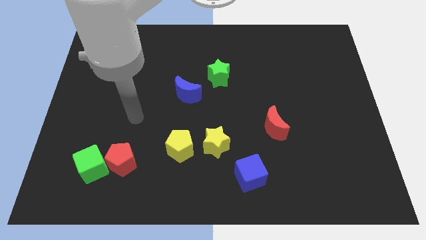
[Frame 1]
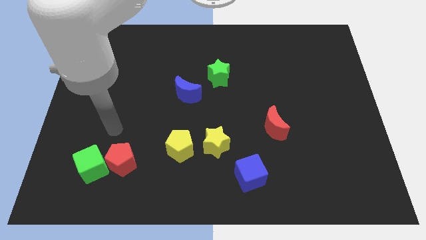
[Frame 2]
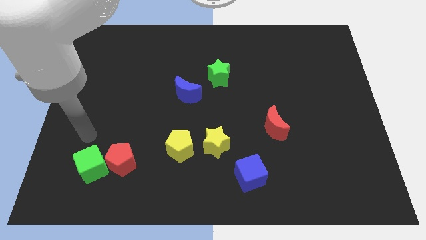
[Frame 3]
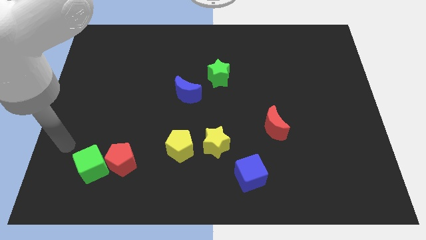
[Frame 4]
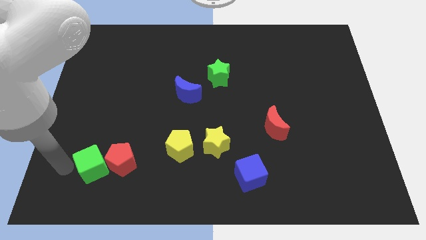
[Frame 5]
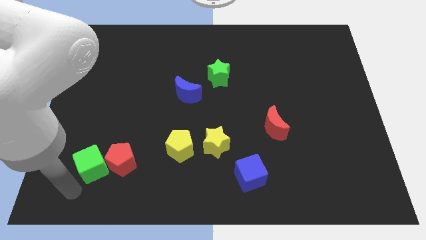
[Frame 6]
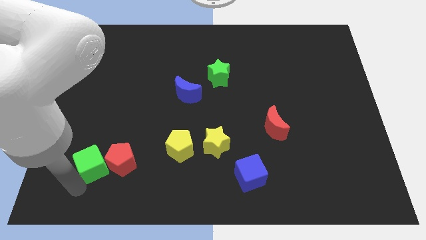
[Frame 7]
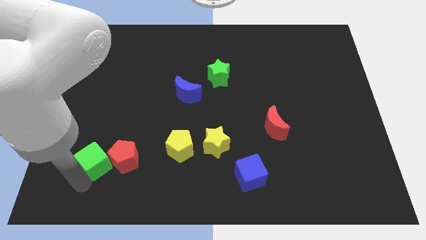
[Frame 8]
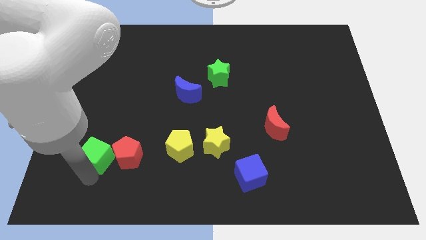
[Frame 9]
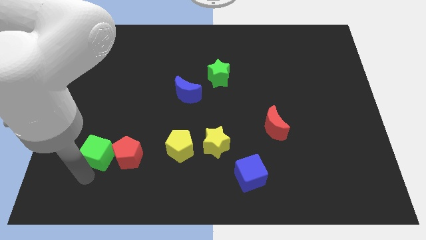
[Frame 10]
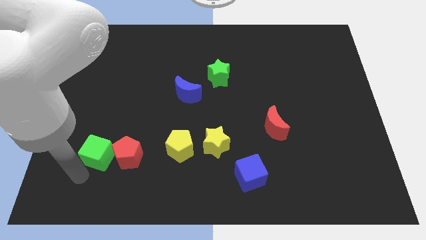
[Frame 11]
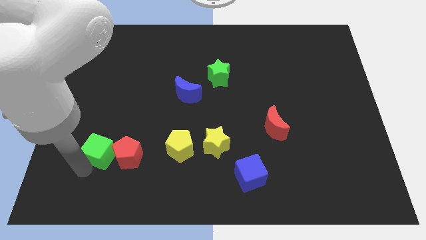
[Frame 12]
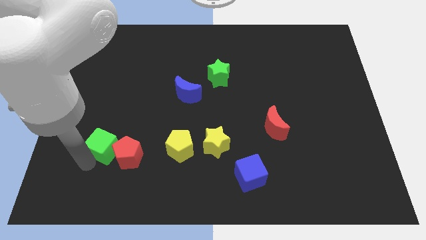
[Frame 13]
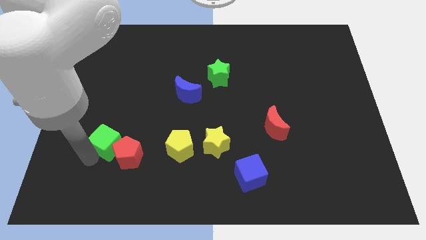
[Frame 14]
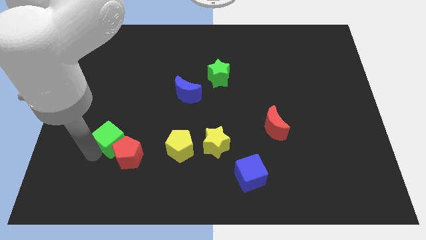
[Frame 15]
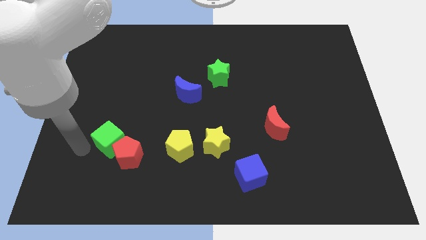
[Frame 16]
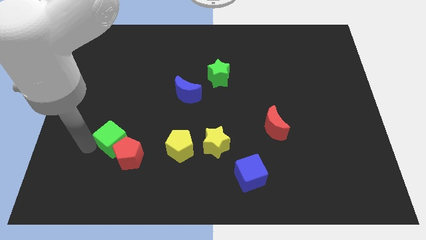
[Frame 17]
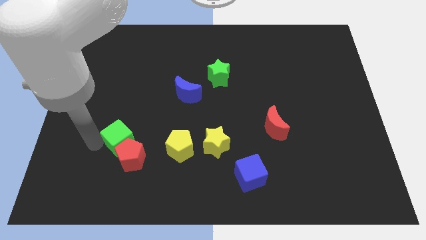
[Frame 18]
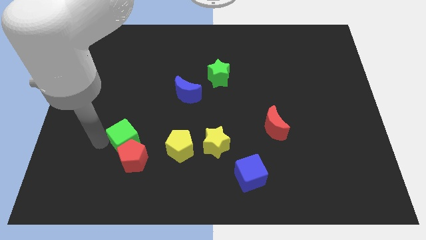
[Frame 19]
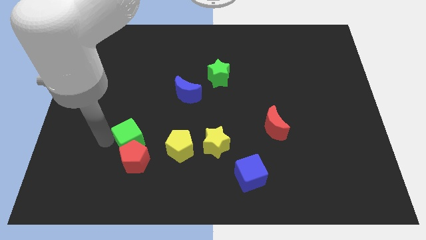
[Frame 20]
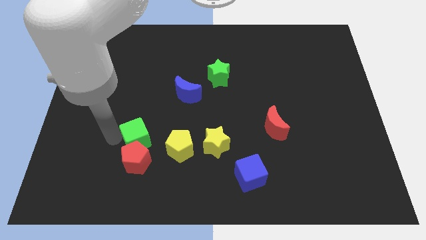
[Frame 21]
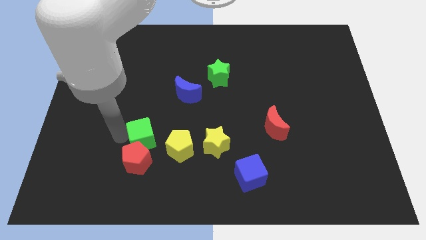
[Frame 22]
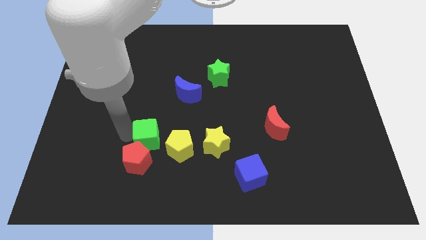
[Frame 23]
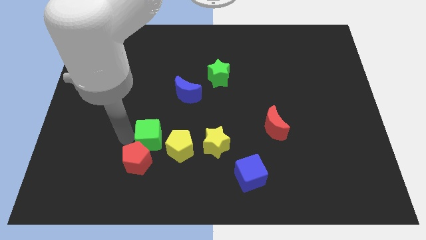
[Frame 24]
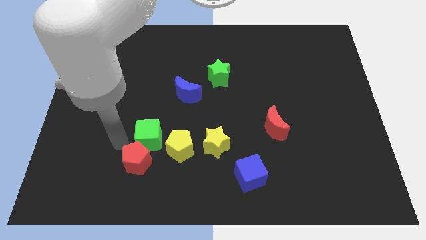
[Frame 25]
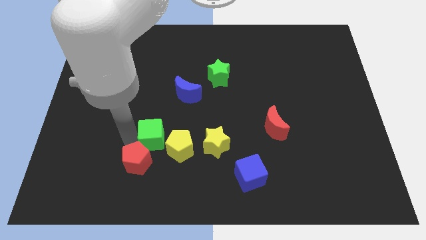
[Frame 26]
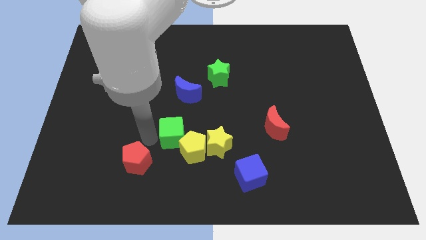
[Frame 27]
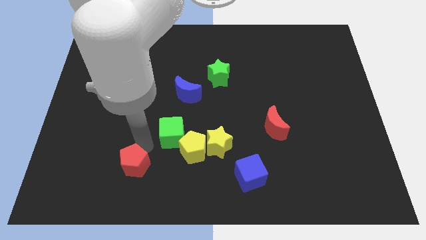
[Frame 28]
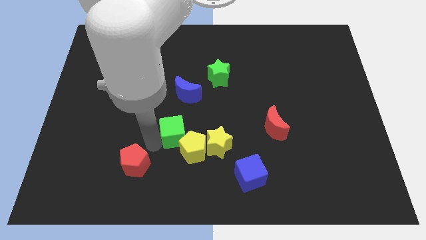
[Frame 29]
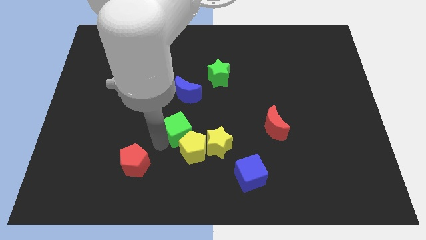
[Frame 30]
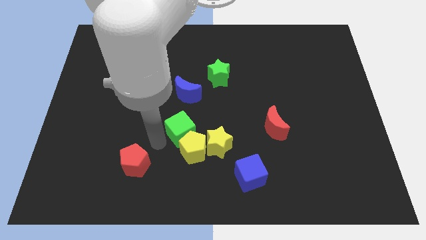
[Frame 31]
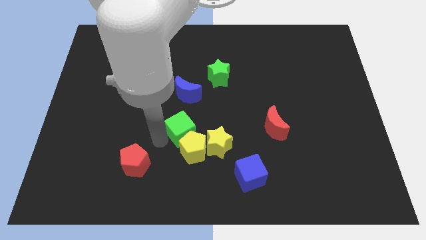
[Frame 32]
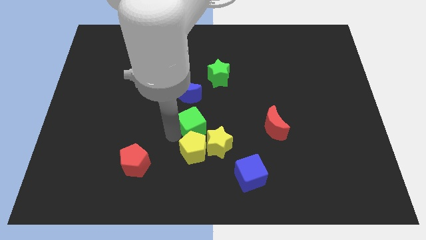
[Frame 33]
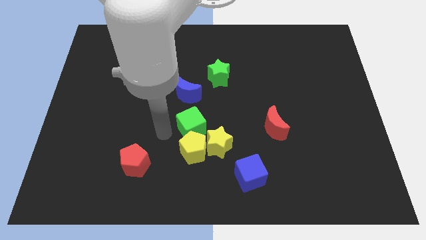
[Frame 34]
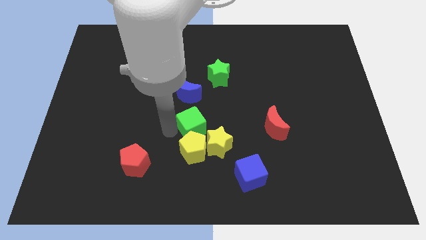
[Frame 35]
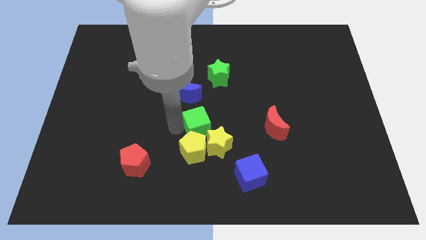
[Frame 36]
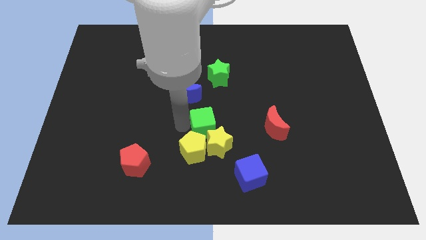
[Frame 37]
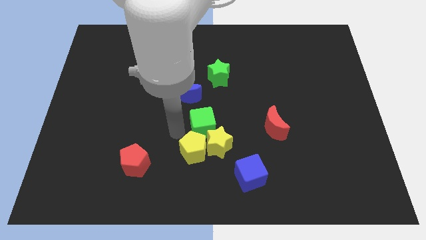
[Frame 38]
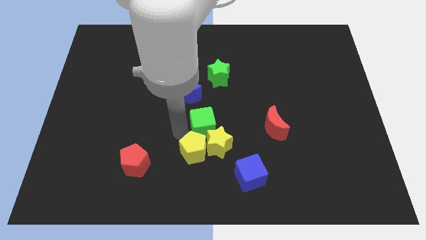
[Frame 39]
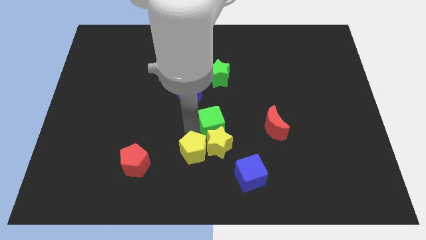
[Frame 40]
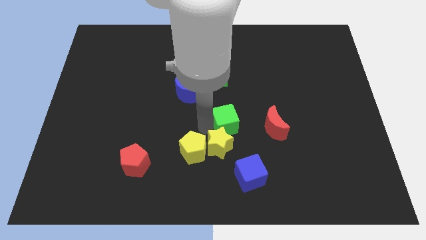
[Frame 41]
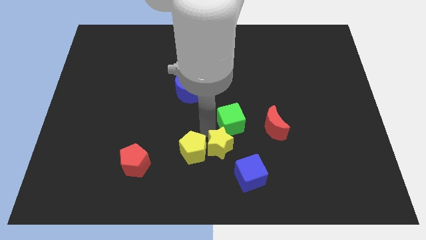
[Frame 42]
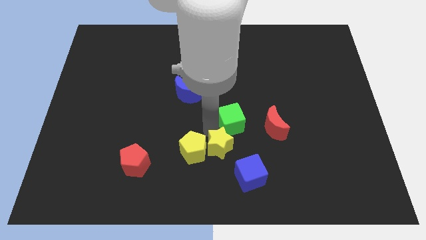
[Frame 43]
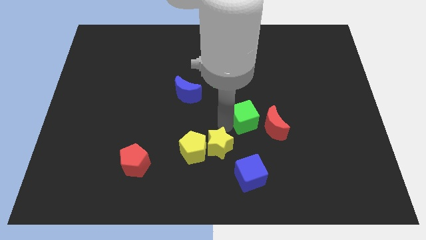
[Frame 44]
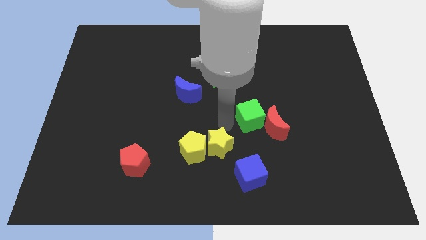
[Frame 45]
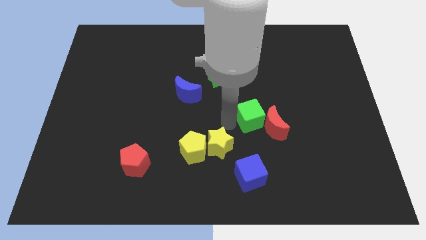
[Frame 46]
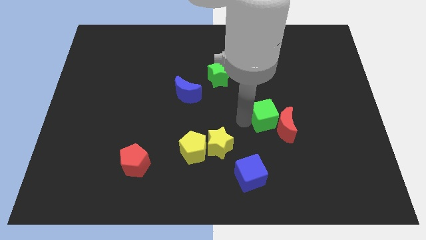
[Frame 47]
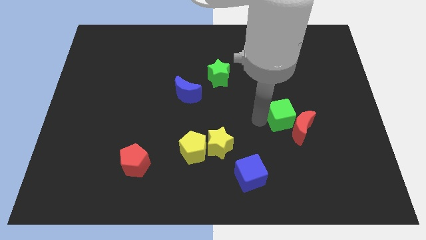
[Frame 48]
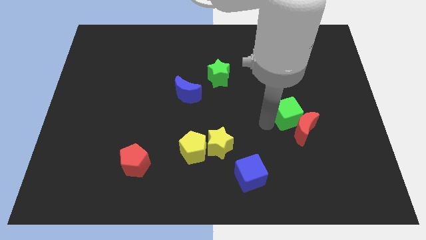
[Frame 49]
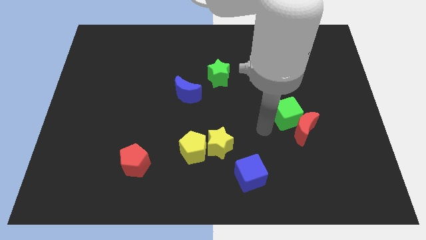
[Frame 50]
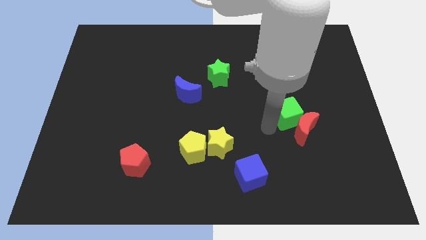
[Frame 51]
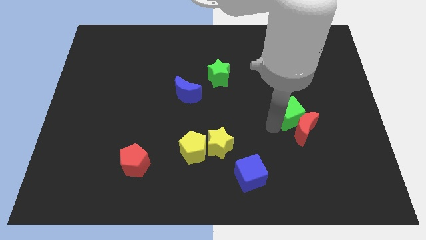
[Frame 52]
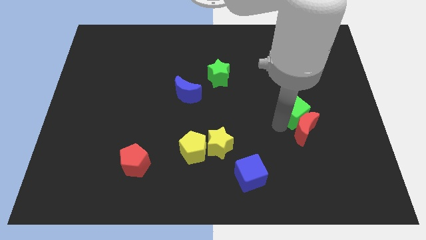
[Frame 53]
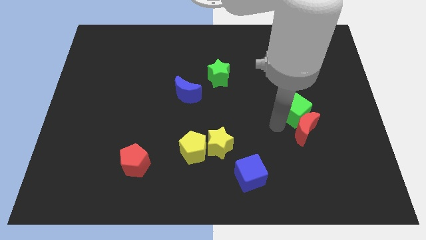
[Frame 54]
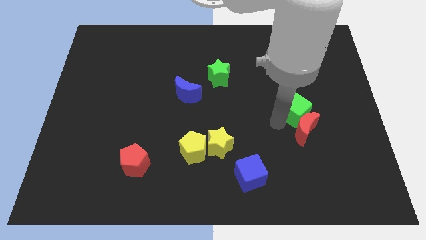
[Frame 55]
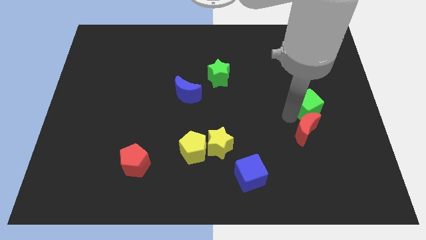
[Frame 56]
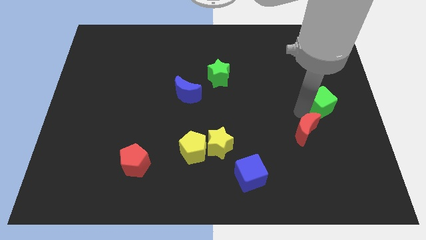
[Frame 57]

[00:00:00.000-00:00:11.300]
push the green cube to the right side

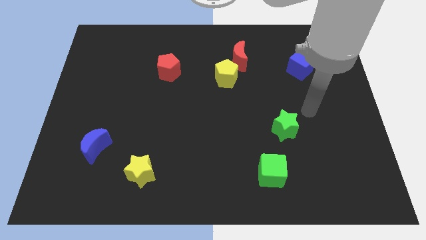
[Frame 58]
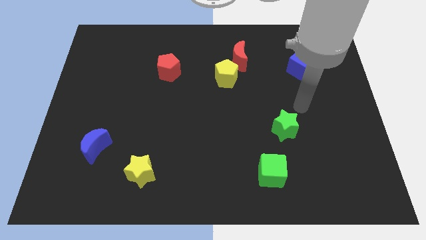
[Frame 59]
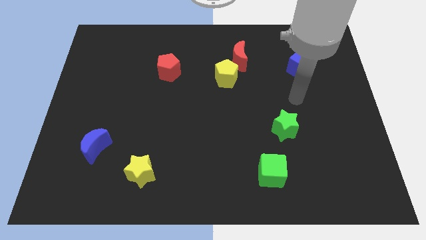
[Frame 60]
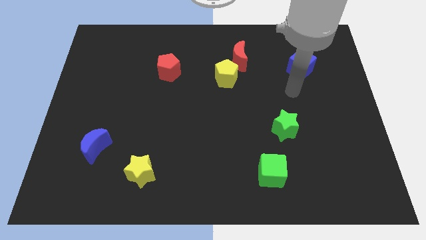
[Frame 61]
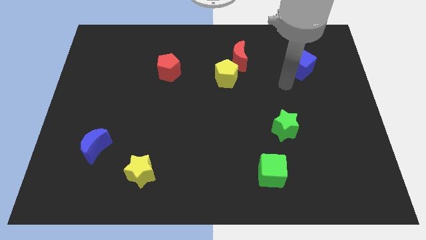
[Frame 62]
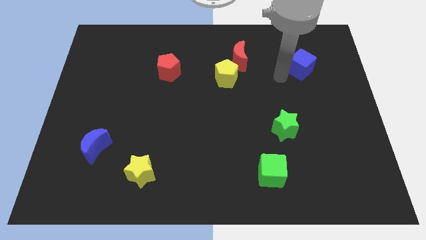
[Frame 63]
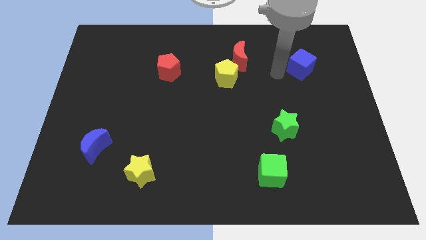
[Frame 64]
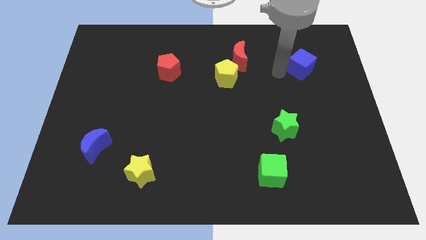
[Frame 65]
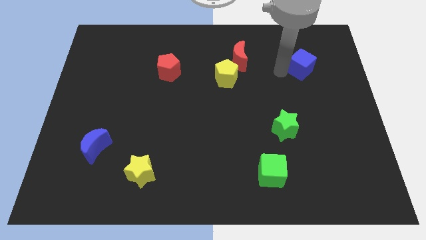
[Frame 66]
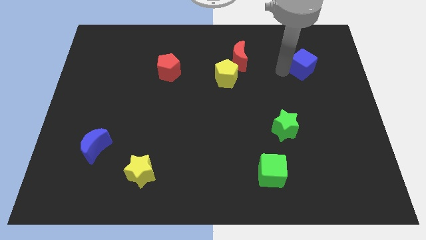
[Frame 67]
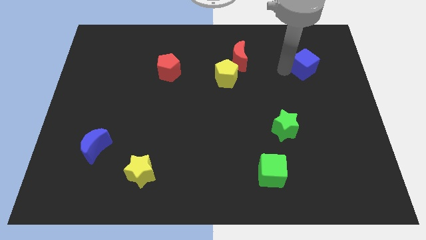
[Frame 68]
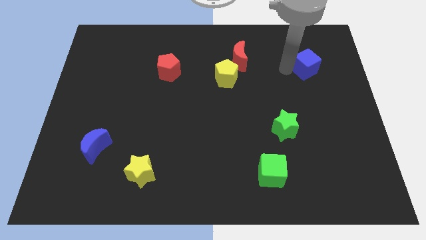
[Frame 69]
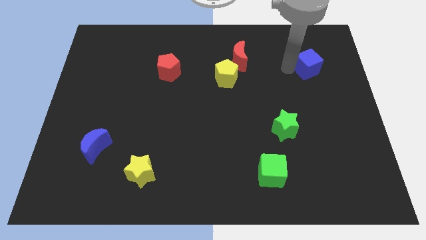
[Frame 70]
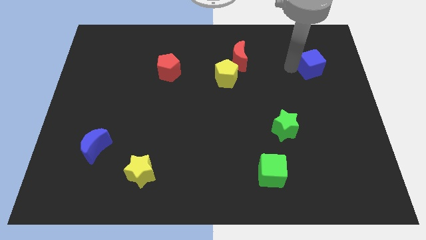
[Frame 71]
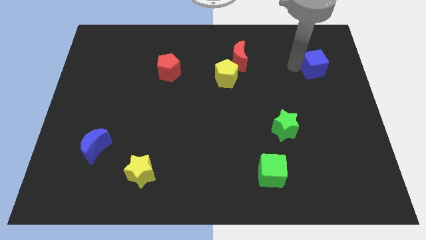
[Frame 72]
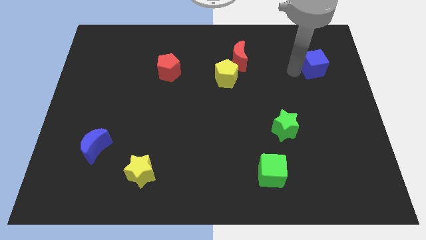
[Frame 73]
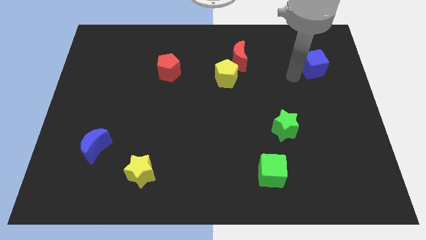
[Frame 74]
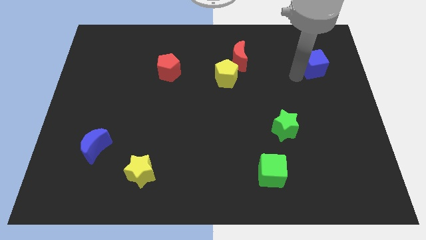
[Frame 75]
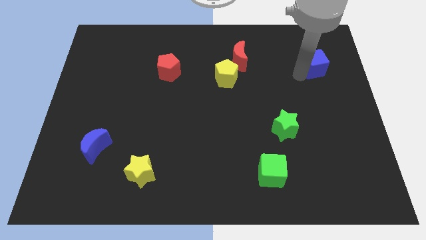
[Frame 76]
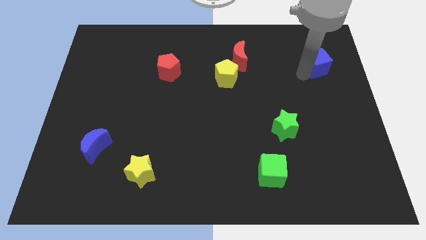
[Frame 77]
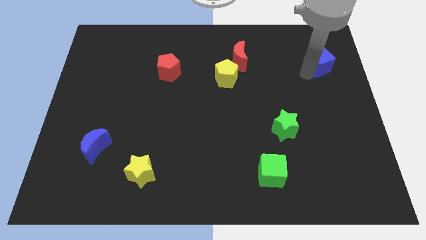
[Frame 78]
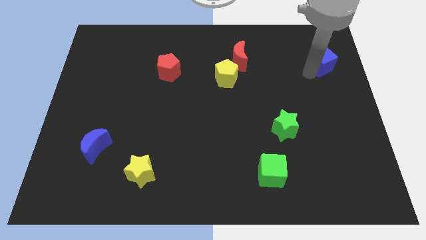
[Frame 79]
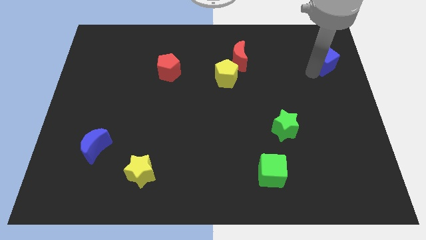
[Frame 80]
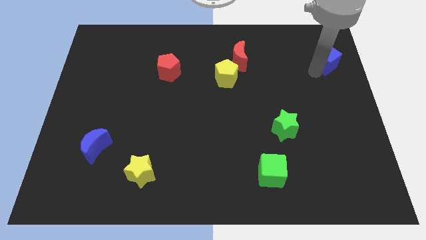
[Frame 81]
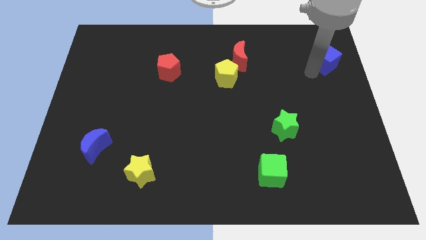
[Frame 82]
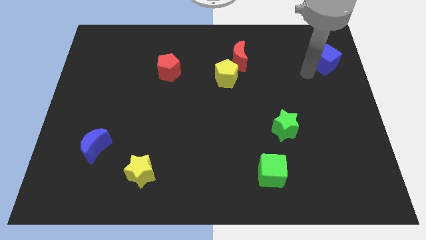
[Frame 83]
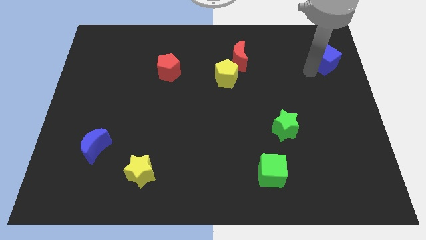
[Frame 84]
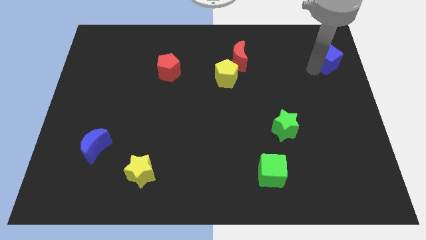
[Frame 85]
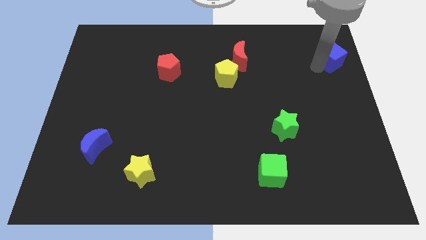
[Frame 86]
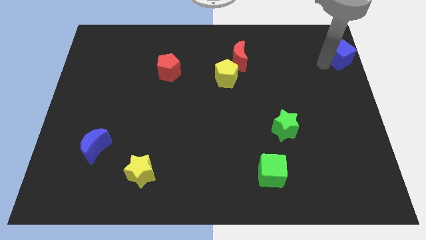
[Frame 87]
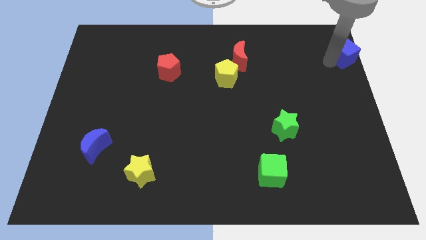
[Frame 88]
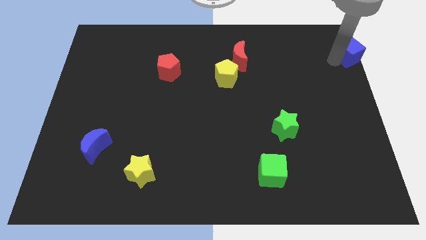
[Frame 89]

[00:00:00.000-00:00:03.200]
slide the blue cube to the upper right corner
